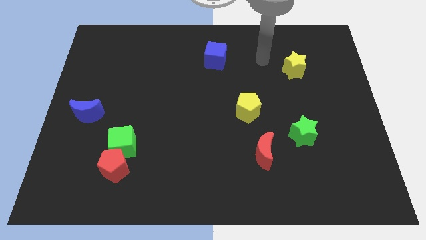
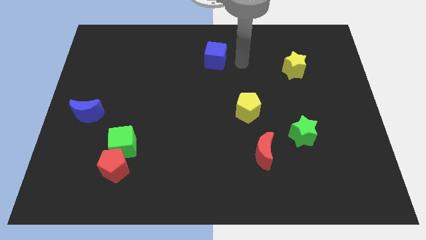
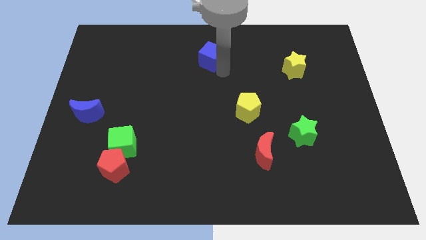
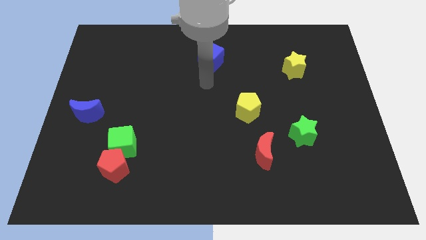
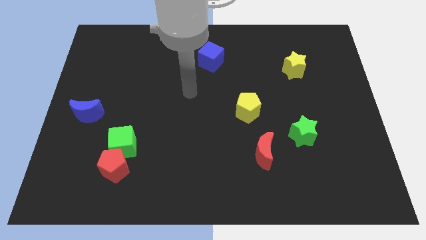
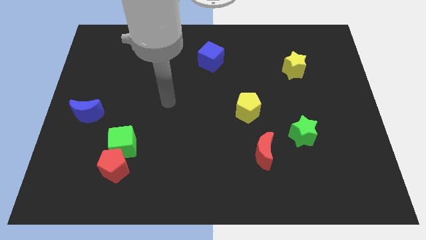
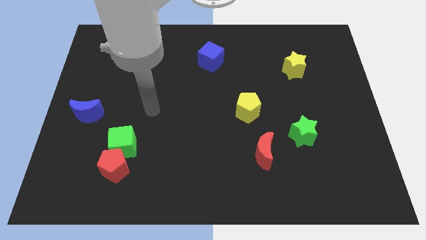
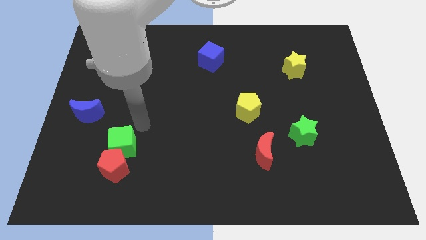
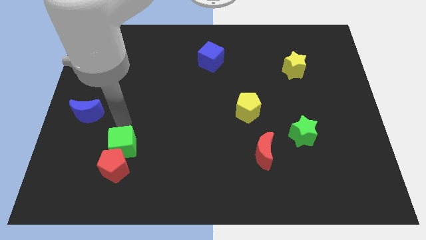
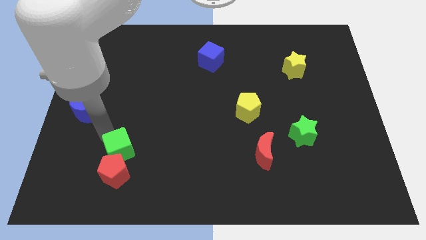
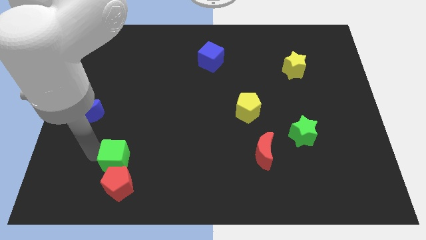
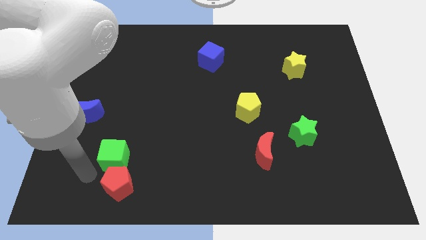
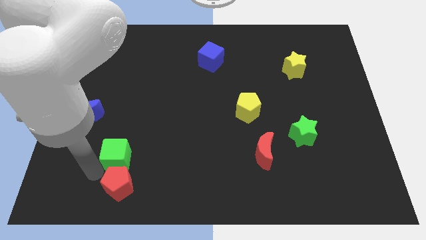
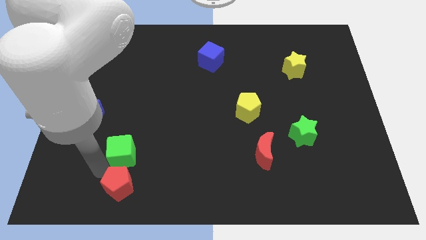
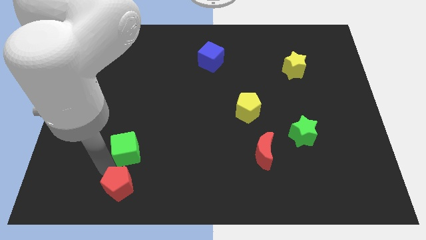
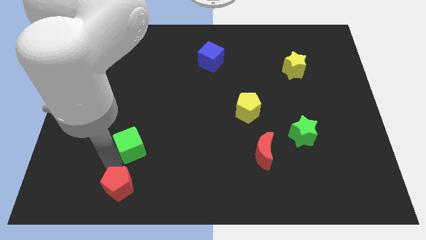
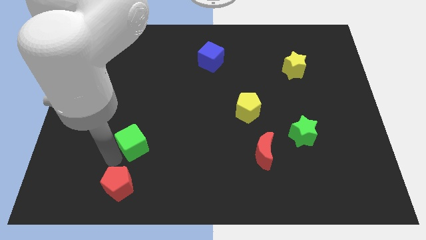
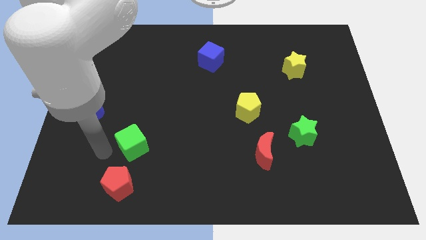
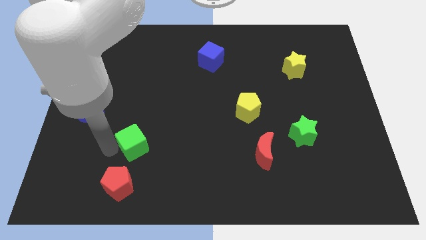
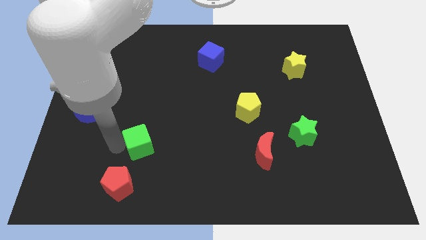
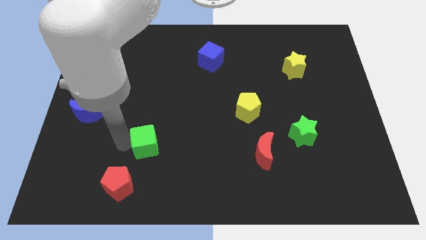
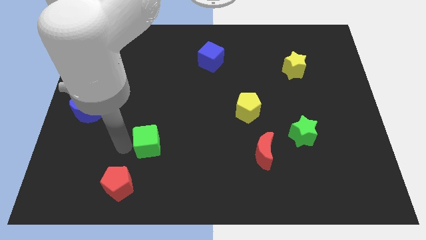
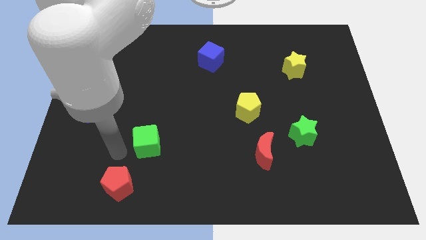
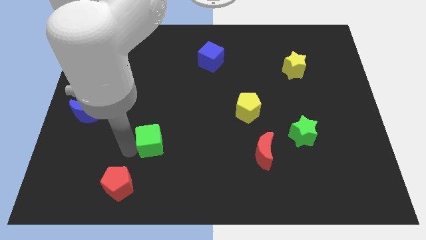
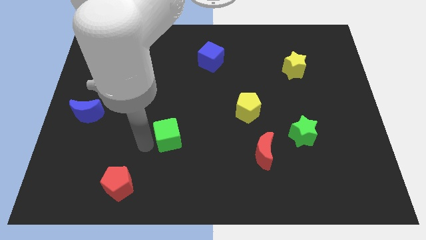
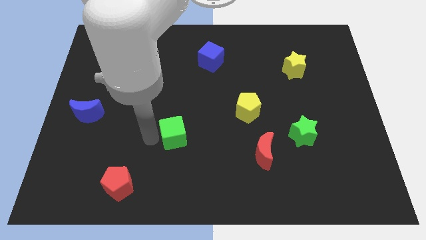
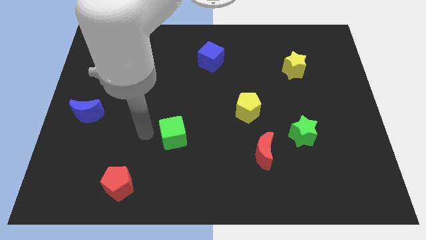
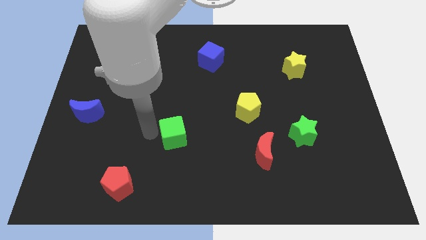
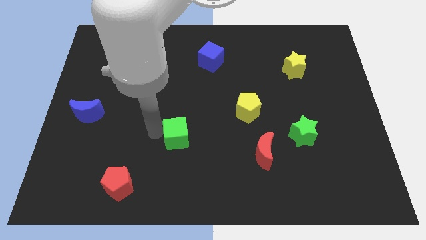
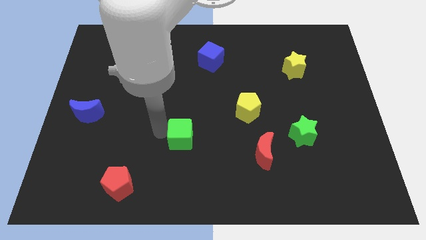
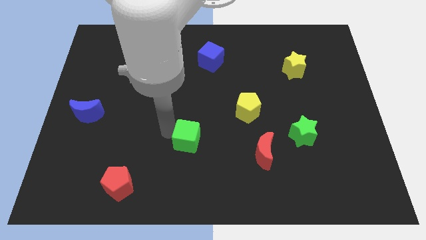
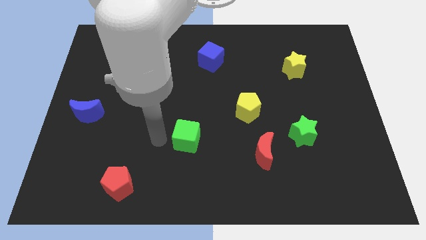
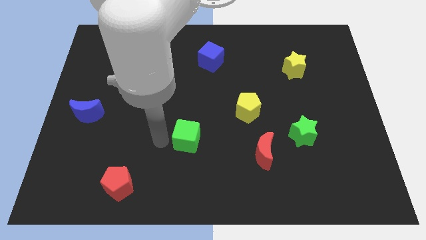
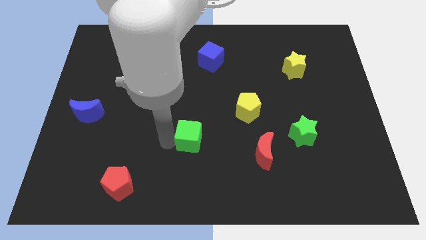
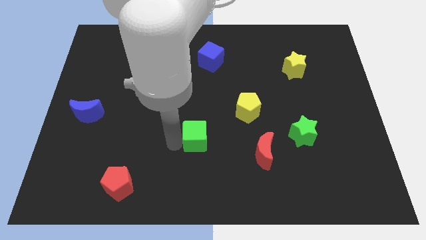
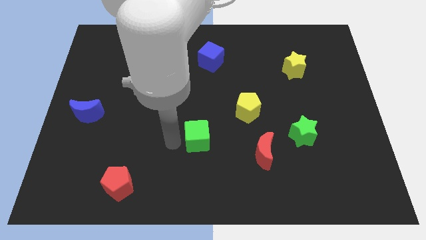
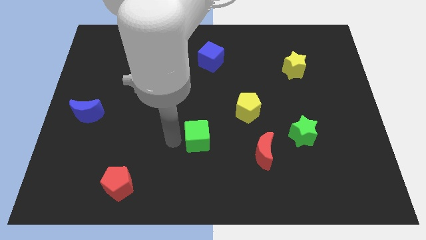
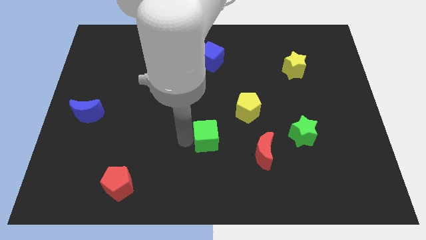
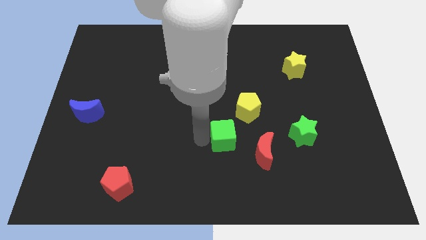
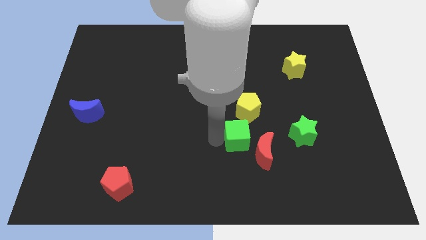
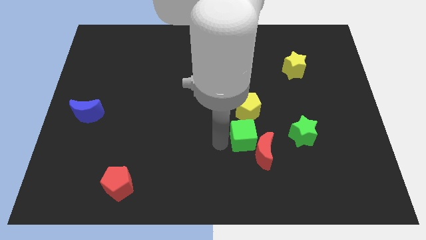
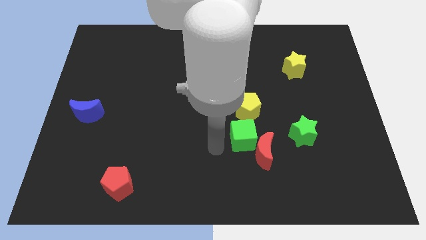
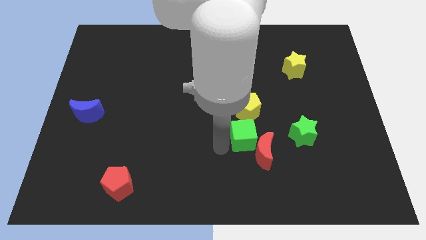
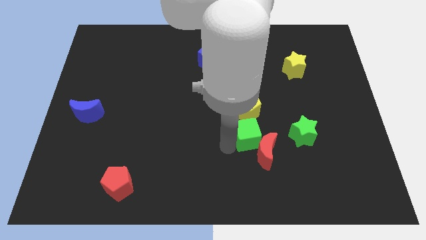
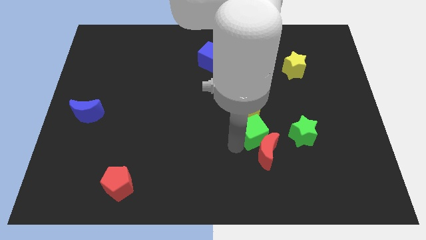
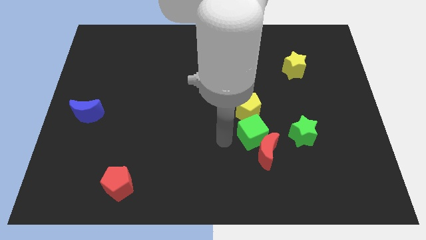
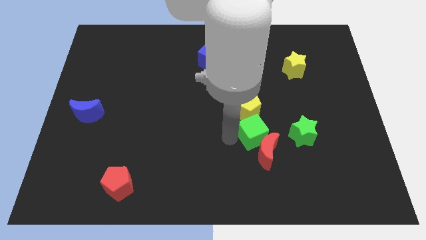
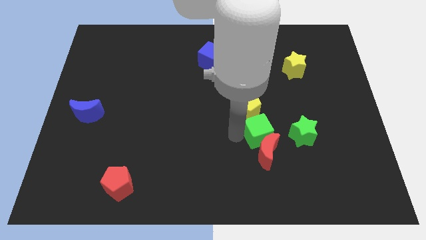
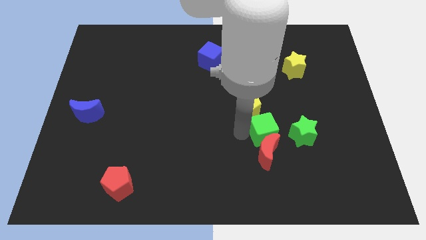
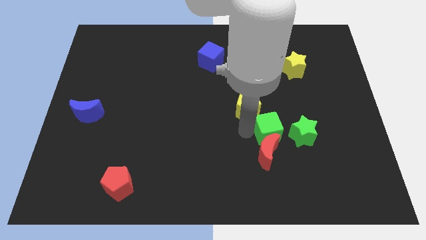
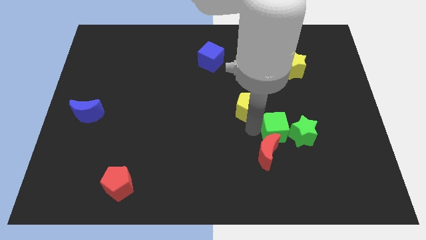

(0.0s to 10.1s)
put the green cube towards the green star

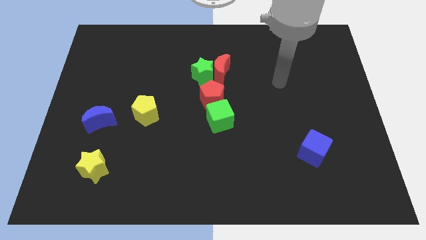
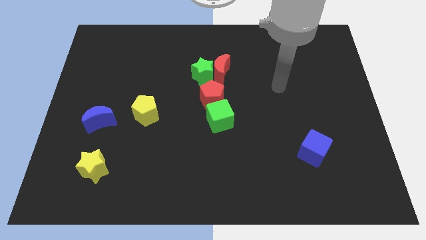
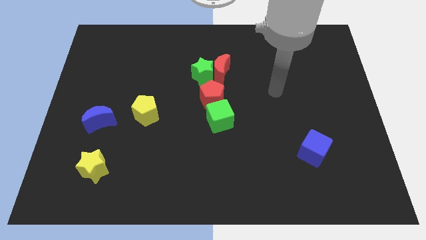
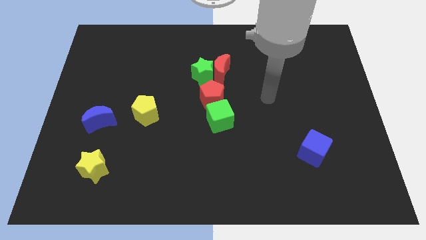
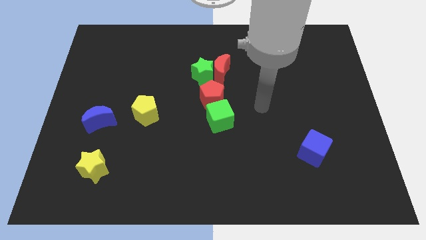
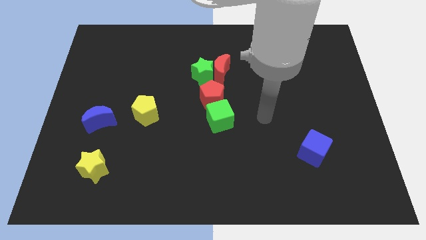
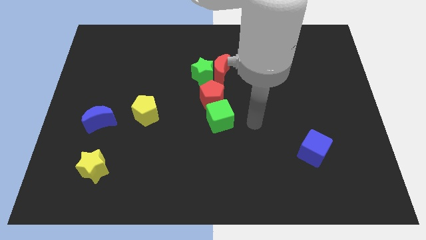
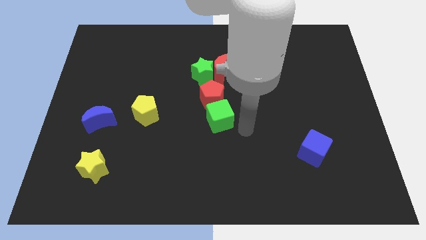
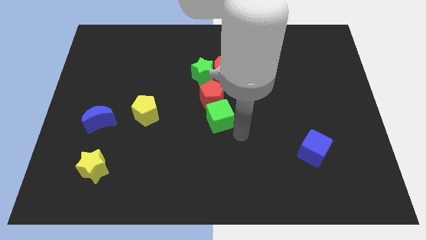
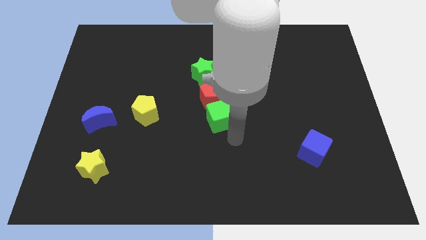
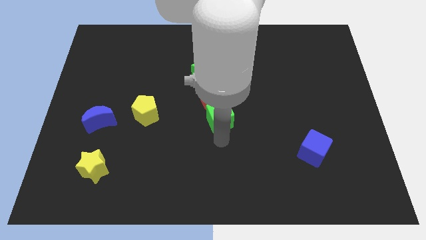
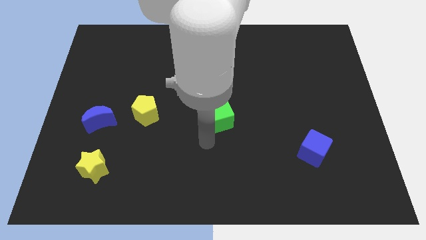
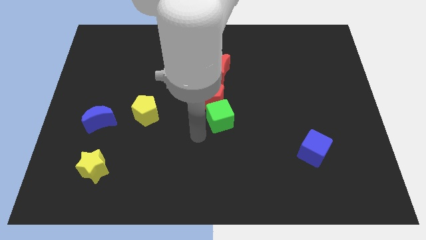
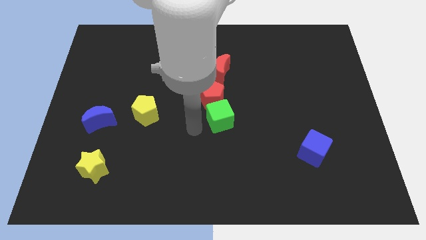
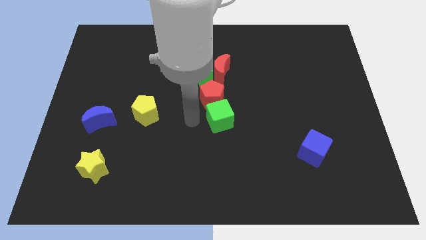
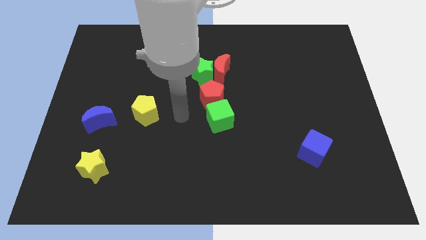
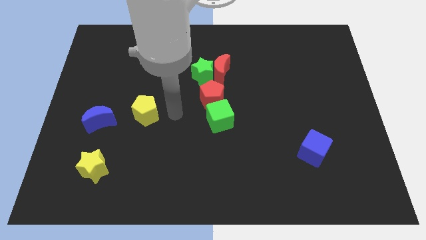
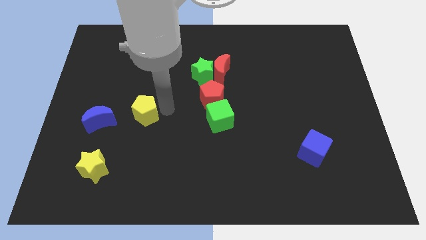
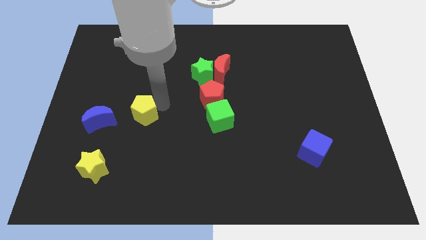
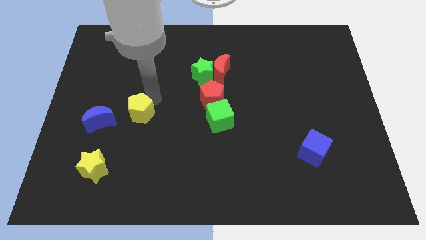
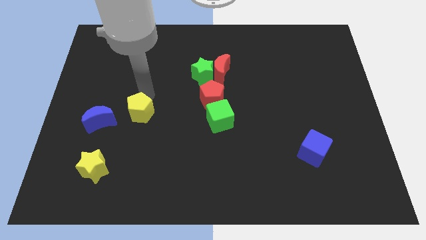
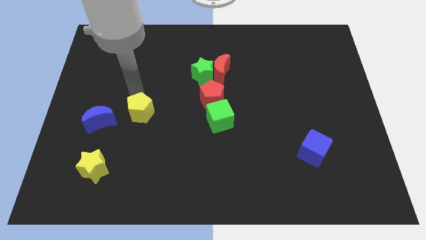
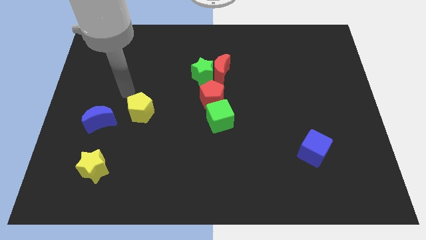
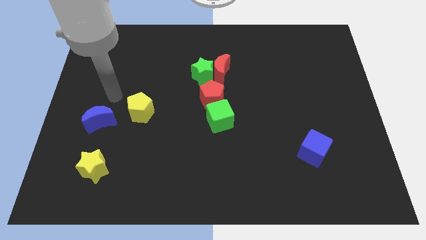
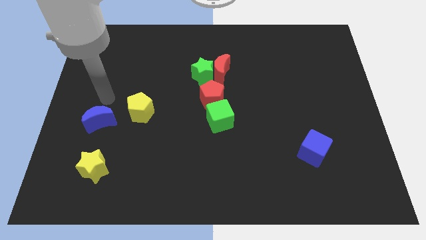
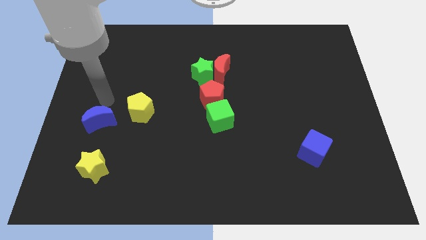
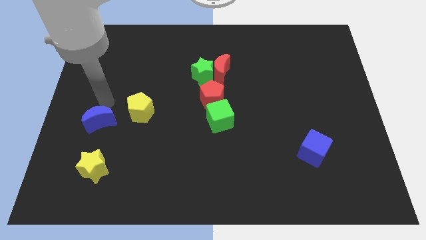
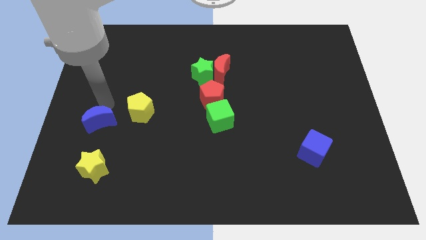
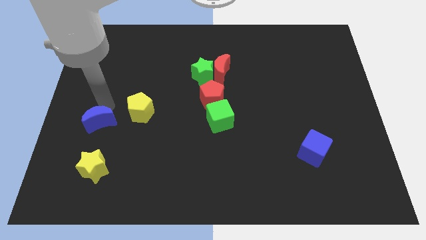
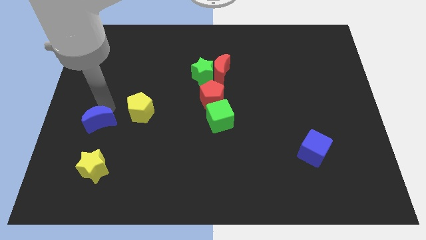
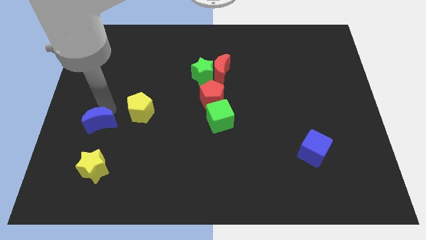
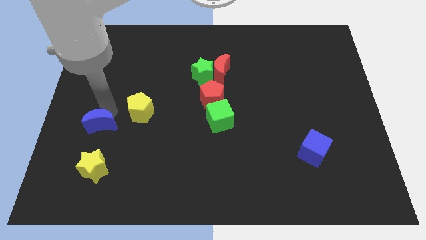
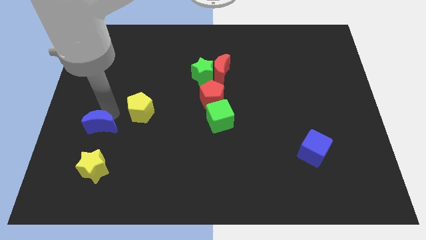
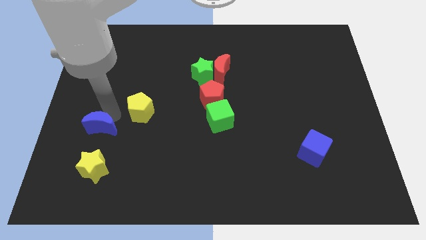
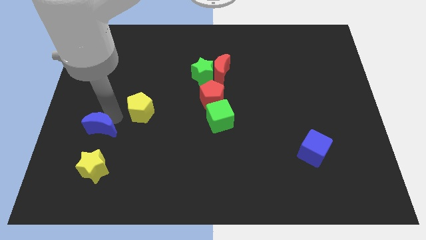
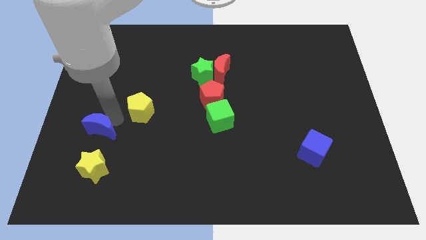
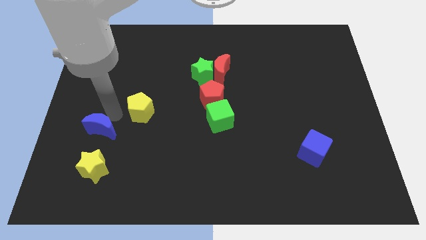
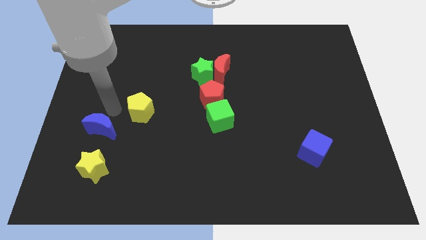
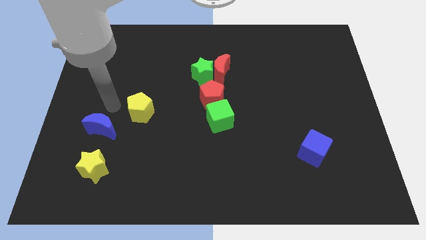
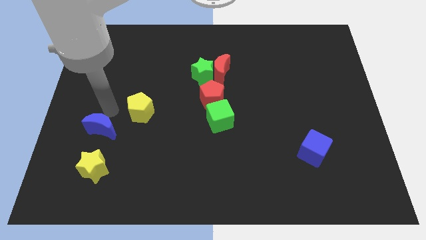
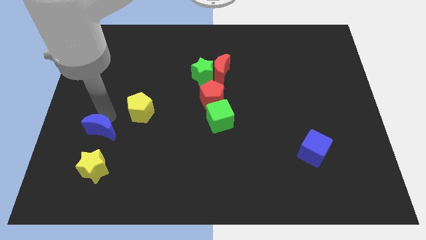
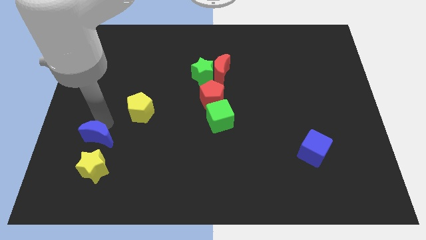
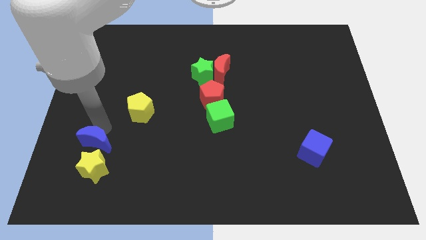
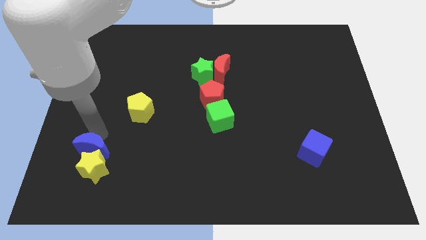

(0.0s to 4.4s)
push the blue moon towards the yellow star
